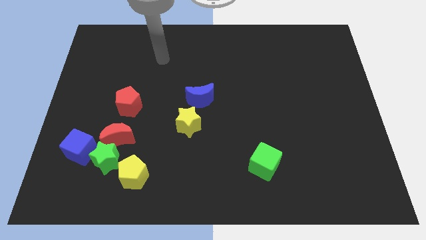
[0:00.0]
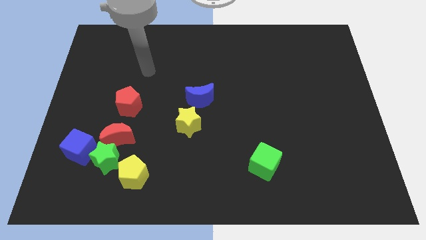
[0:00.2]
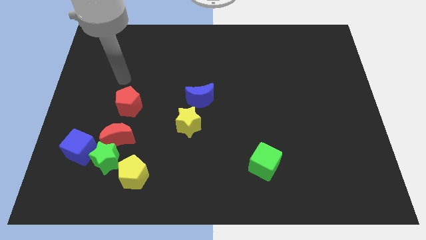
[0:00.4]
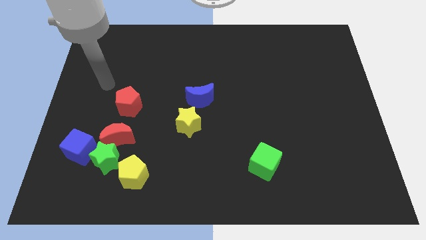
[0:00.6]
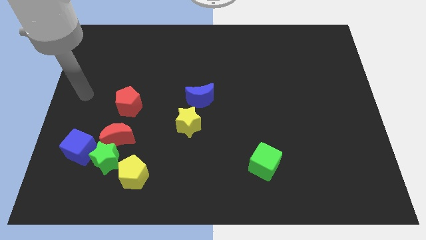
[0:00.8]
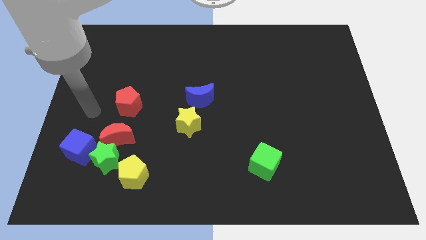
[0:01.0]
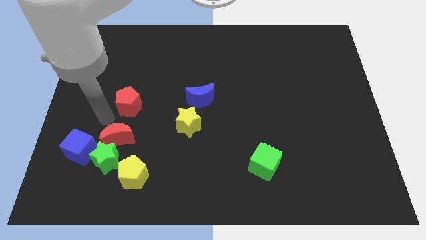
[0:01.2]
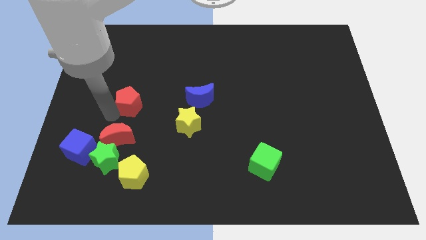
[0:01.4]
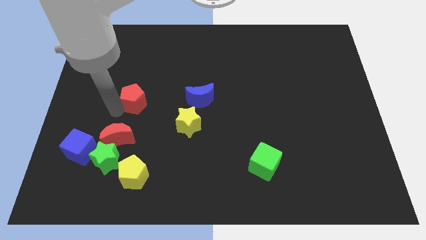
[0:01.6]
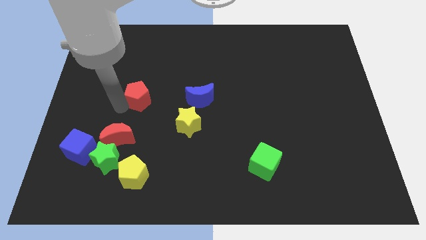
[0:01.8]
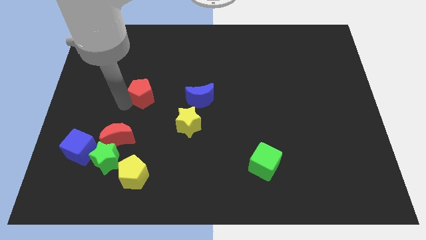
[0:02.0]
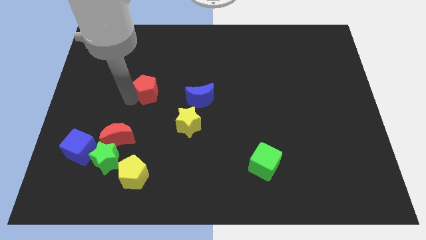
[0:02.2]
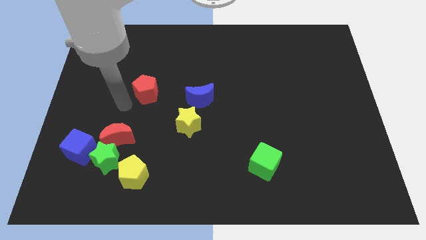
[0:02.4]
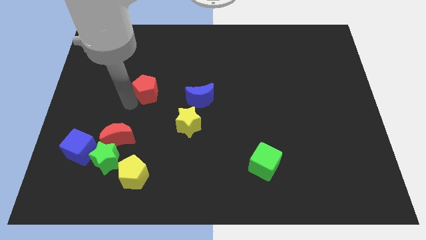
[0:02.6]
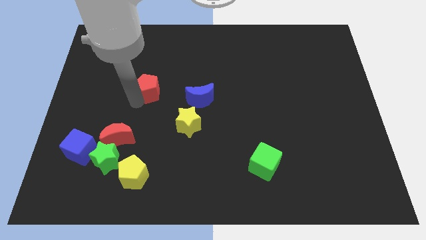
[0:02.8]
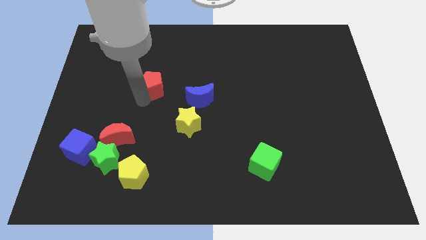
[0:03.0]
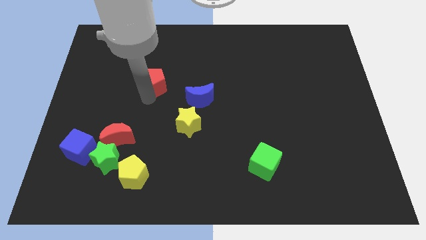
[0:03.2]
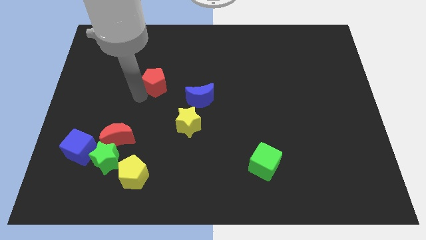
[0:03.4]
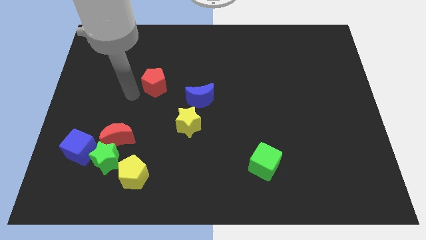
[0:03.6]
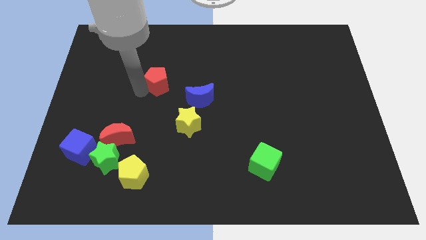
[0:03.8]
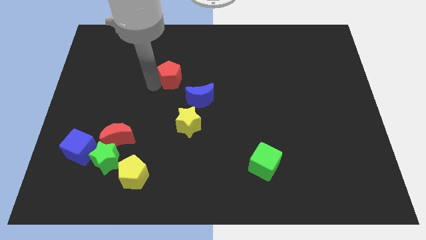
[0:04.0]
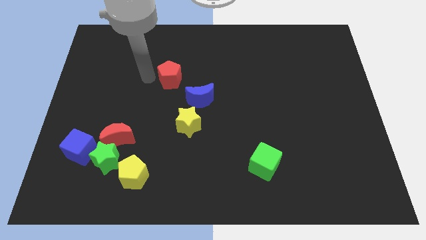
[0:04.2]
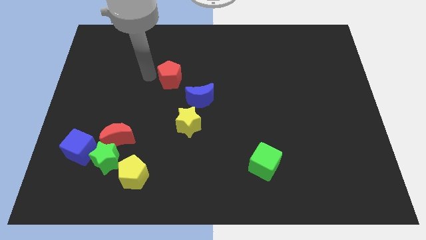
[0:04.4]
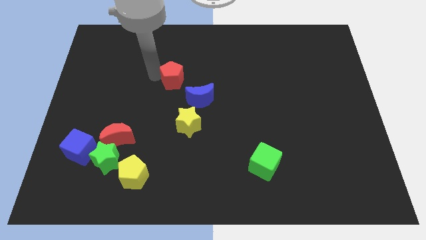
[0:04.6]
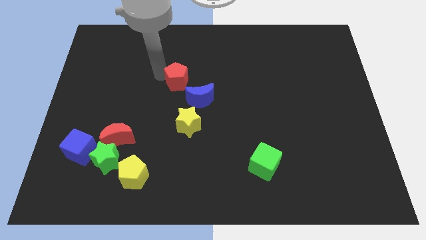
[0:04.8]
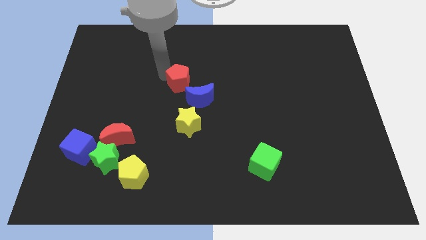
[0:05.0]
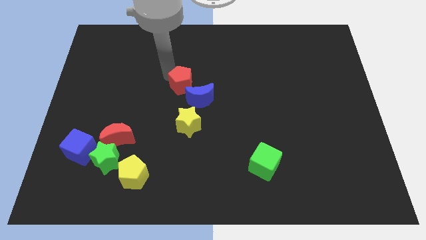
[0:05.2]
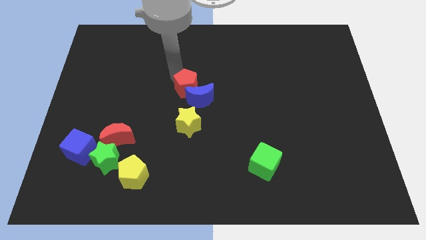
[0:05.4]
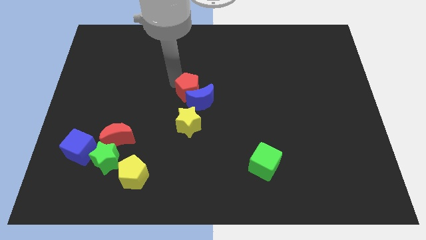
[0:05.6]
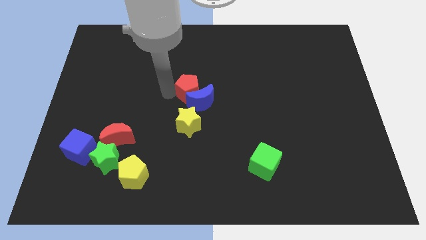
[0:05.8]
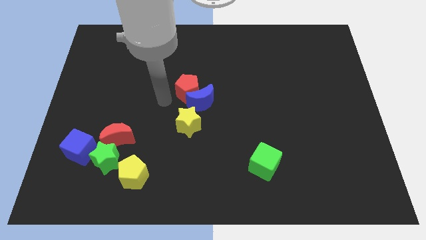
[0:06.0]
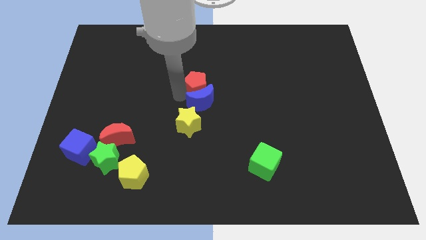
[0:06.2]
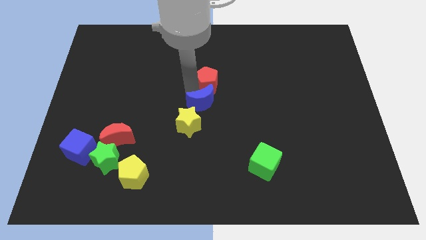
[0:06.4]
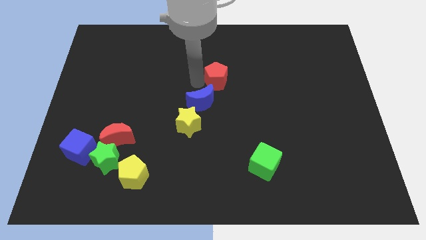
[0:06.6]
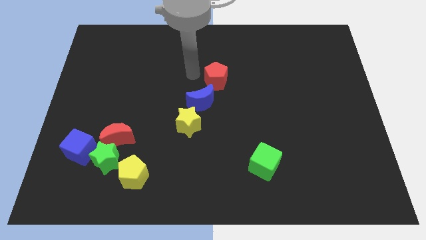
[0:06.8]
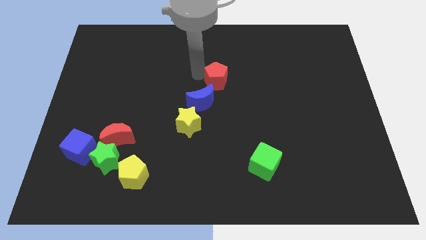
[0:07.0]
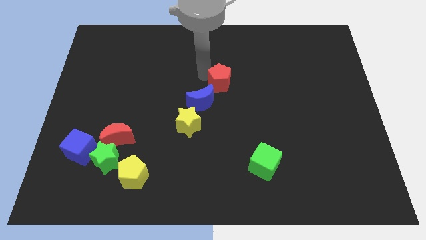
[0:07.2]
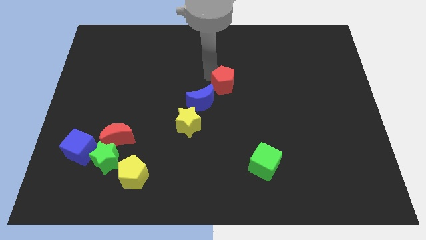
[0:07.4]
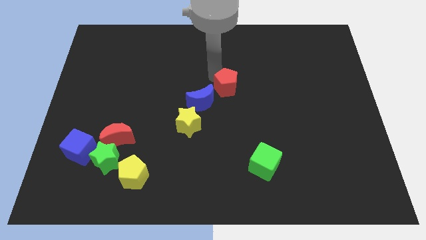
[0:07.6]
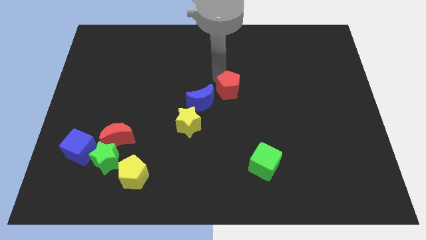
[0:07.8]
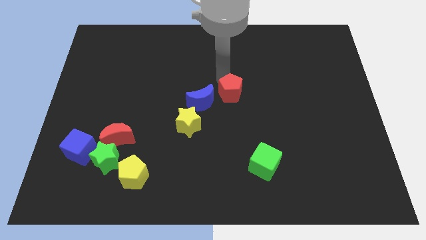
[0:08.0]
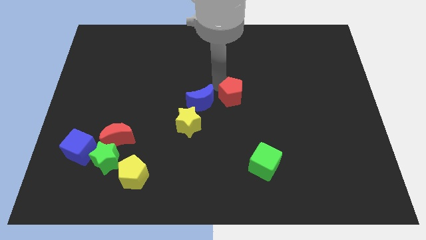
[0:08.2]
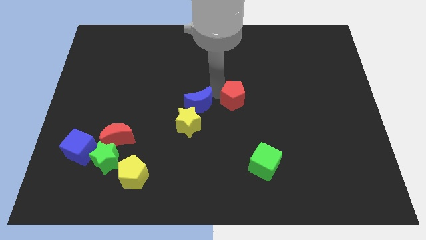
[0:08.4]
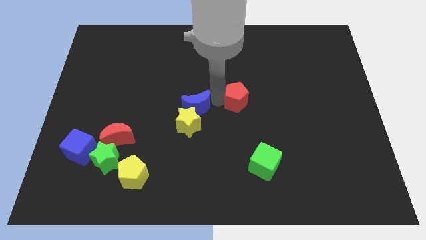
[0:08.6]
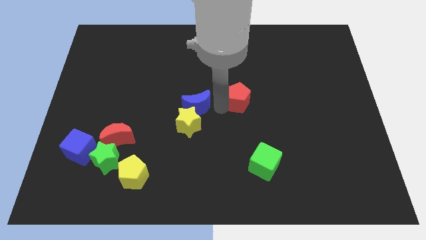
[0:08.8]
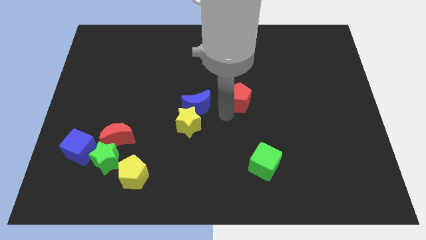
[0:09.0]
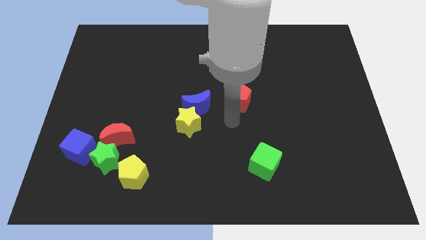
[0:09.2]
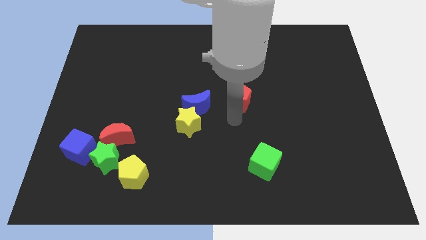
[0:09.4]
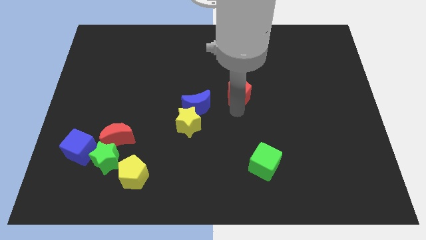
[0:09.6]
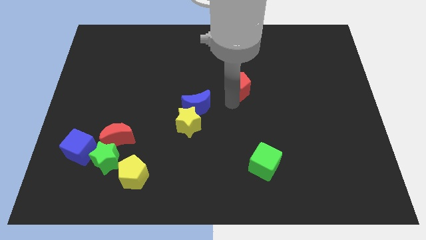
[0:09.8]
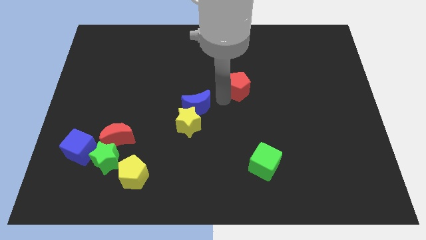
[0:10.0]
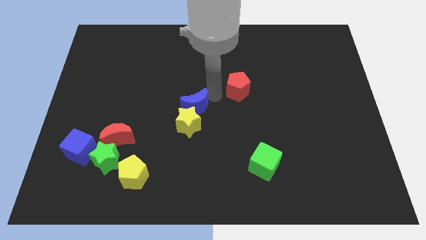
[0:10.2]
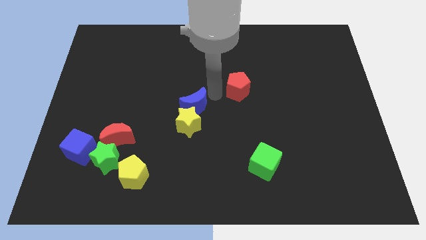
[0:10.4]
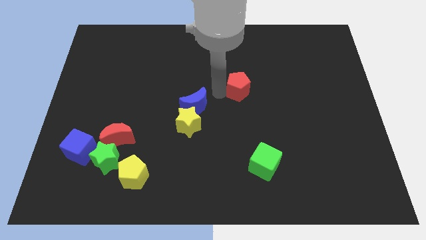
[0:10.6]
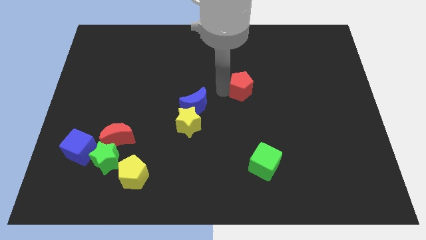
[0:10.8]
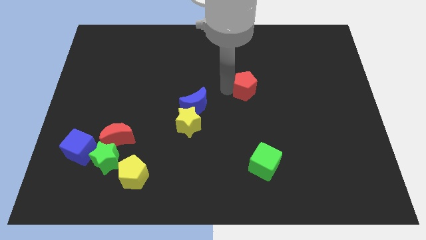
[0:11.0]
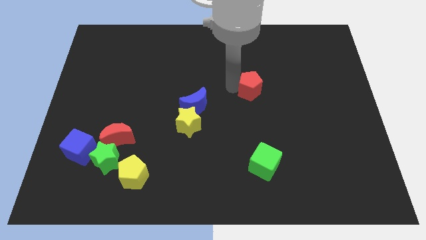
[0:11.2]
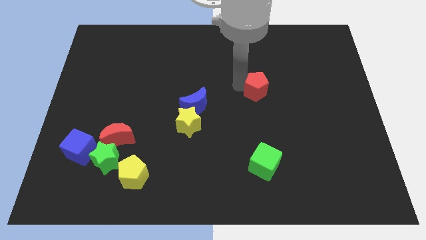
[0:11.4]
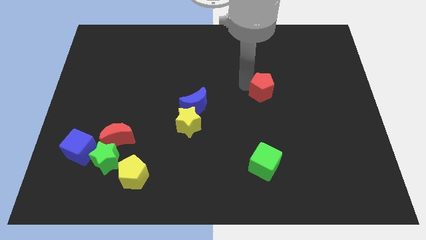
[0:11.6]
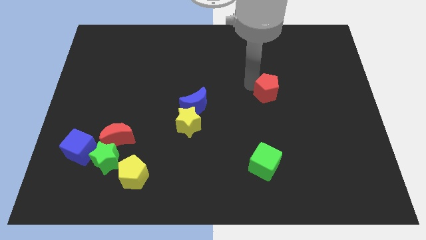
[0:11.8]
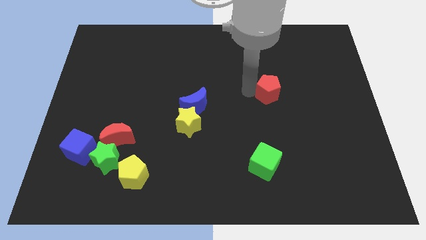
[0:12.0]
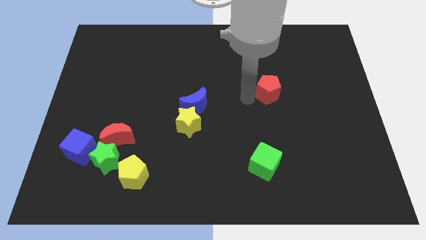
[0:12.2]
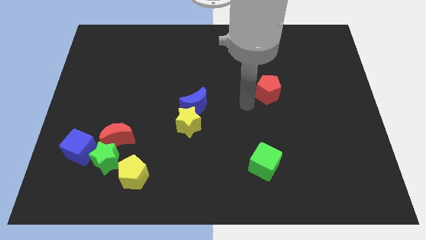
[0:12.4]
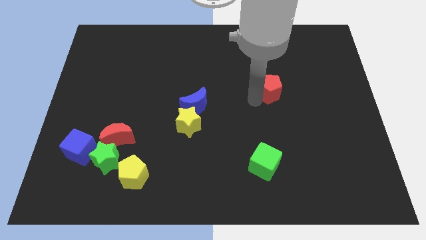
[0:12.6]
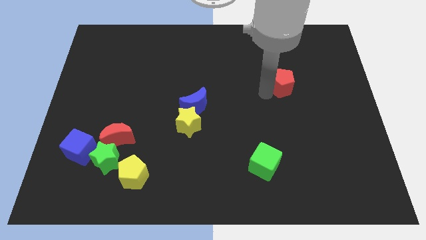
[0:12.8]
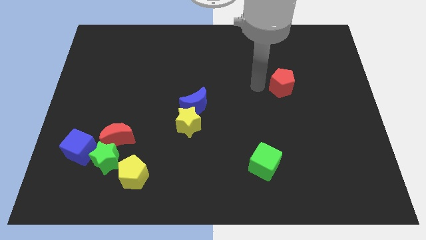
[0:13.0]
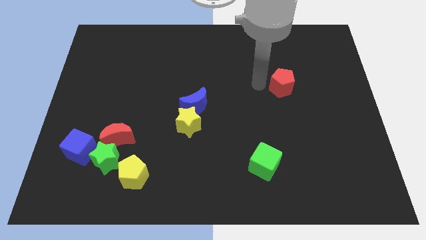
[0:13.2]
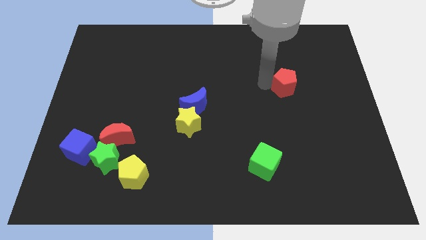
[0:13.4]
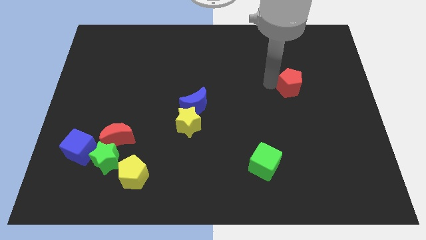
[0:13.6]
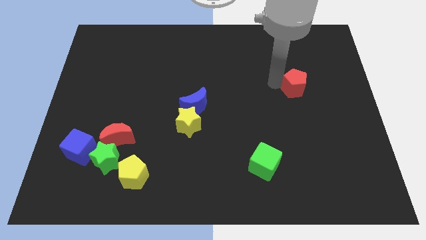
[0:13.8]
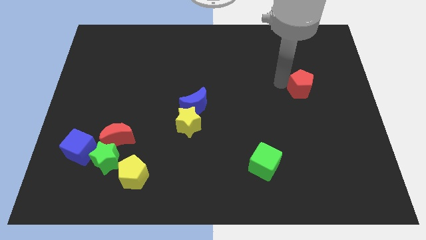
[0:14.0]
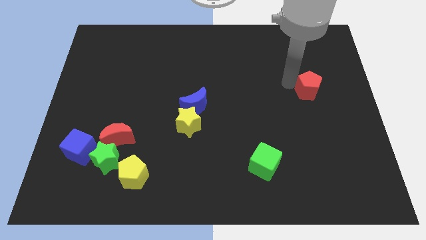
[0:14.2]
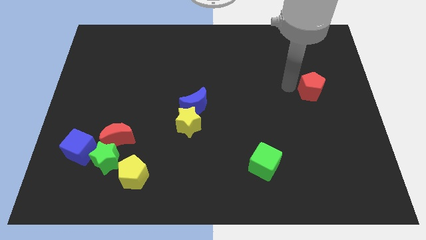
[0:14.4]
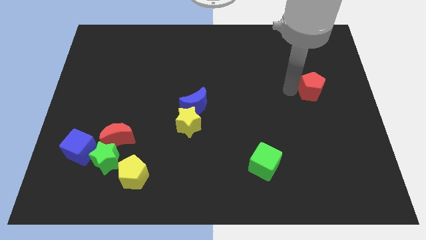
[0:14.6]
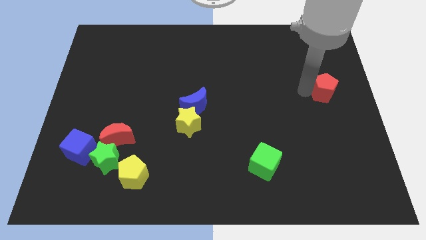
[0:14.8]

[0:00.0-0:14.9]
push the red pentagon to the right side of the board
